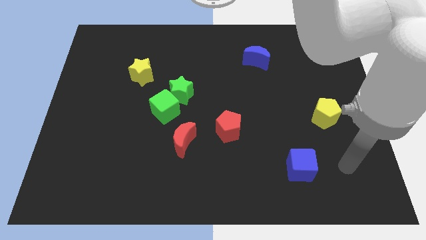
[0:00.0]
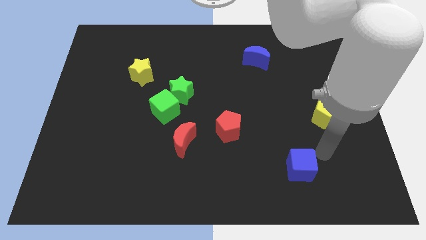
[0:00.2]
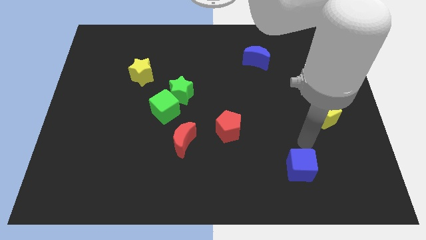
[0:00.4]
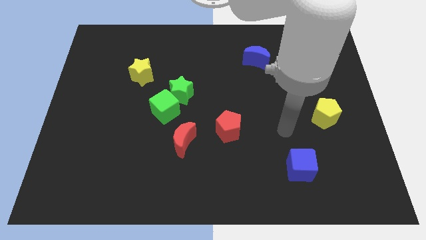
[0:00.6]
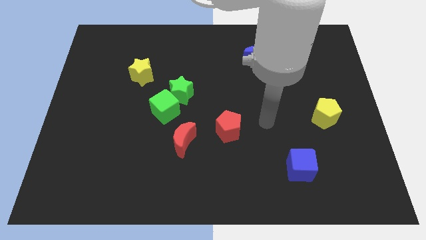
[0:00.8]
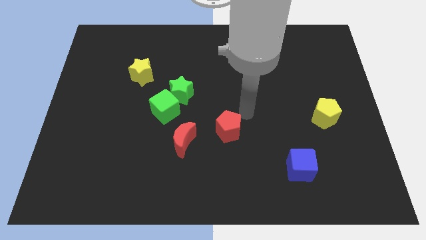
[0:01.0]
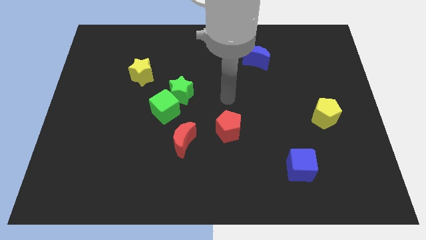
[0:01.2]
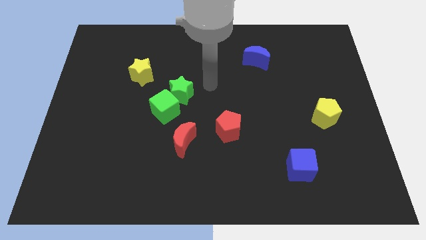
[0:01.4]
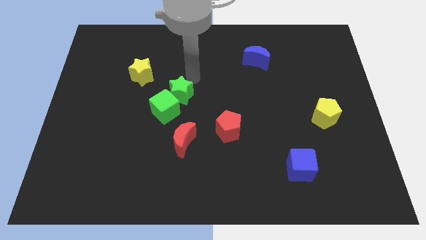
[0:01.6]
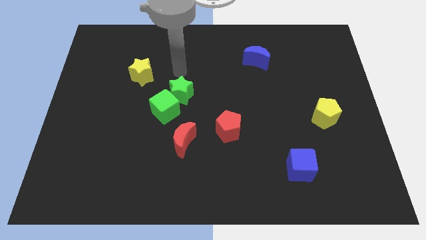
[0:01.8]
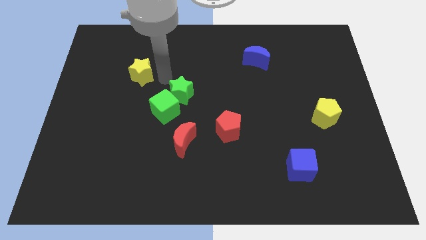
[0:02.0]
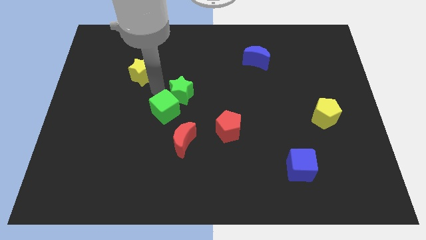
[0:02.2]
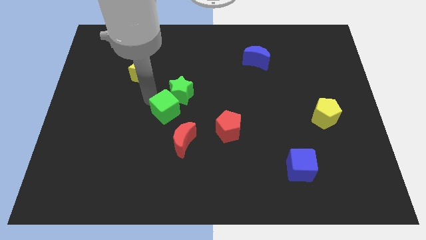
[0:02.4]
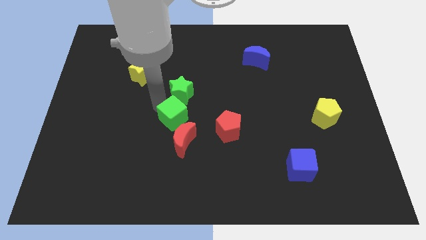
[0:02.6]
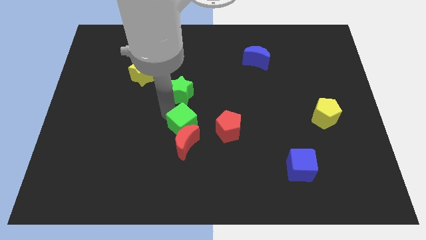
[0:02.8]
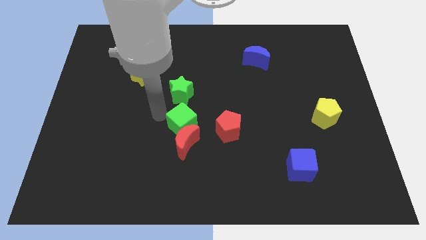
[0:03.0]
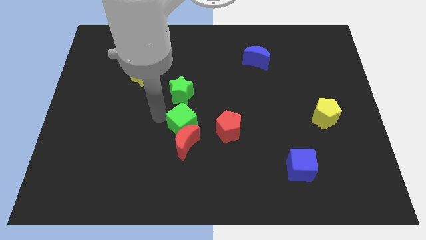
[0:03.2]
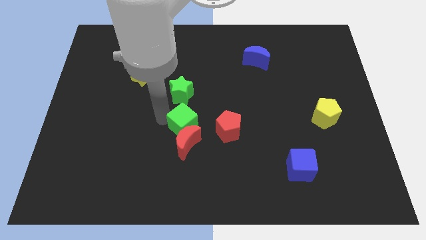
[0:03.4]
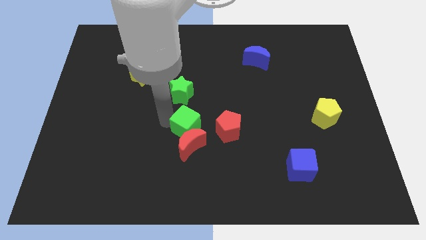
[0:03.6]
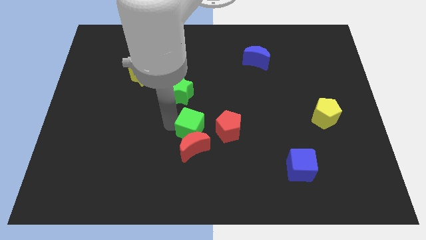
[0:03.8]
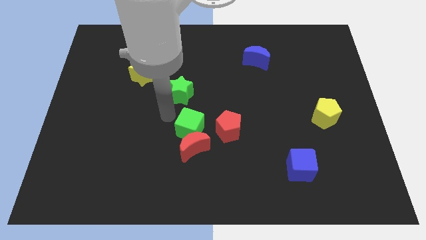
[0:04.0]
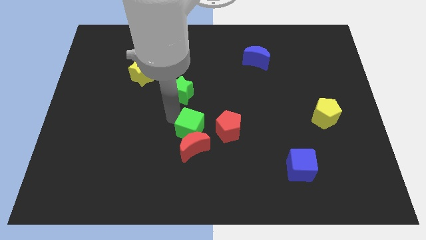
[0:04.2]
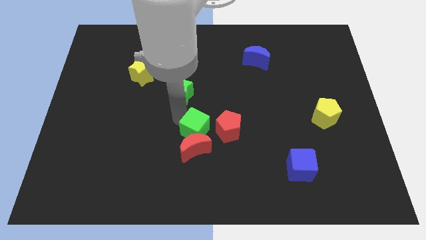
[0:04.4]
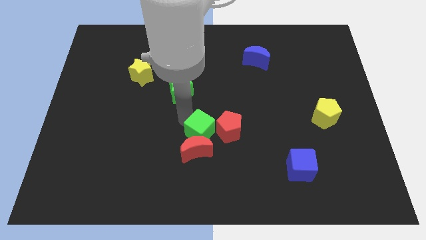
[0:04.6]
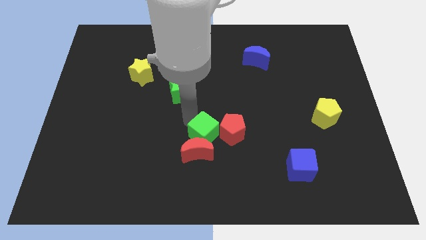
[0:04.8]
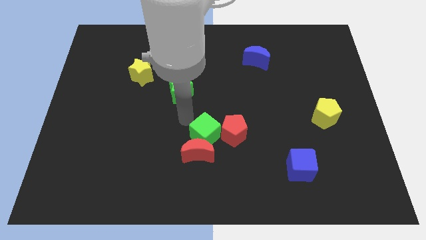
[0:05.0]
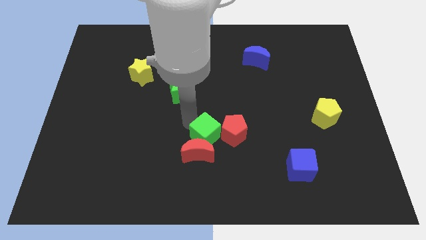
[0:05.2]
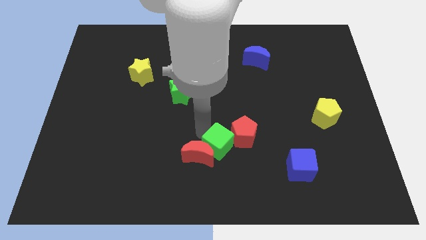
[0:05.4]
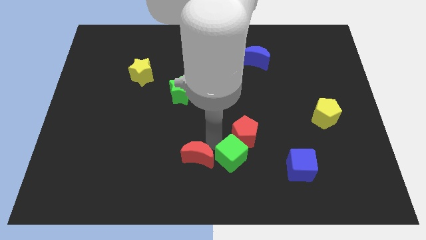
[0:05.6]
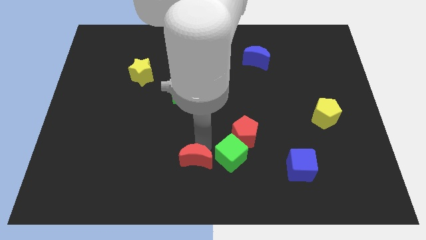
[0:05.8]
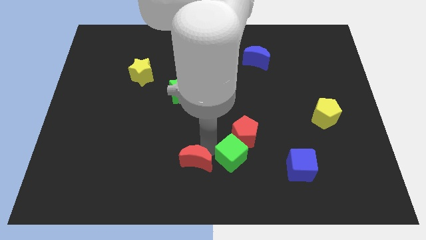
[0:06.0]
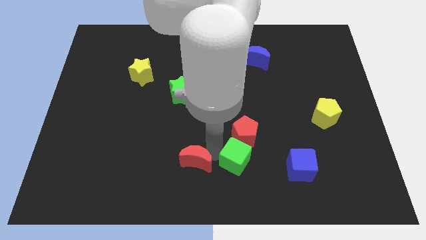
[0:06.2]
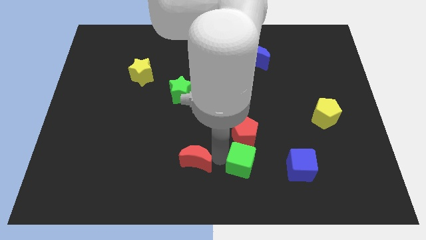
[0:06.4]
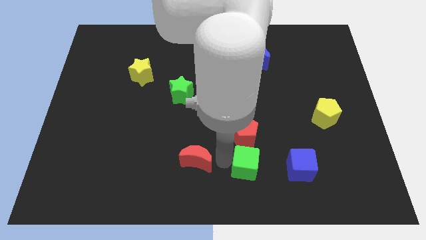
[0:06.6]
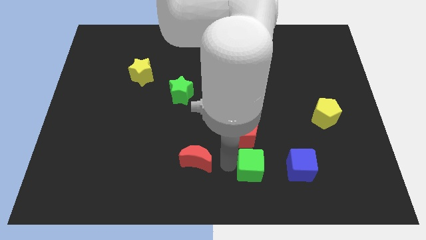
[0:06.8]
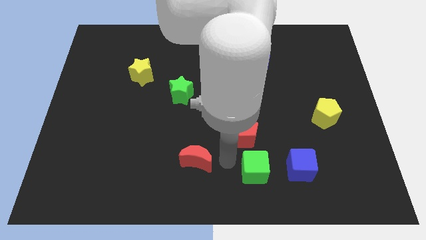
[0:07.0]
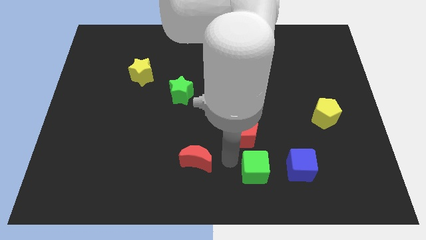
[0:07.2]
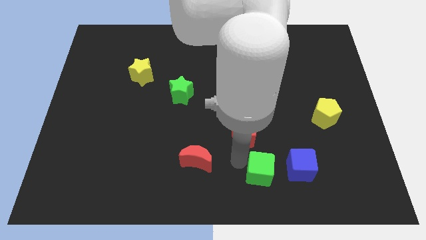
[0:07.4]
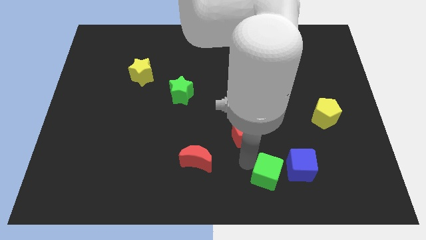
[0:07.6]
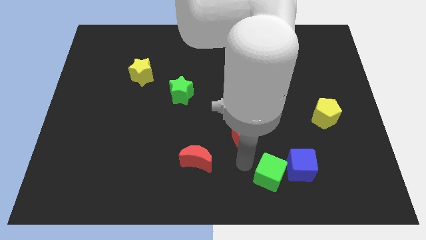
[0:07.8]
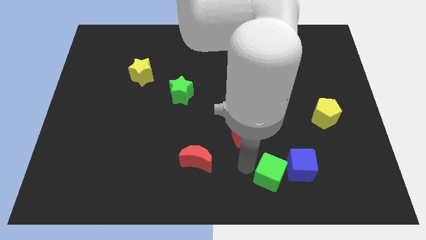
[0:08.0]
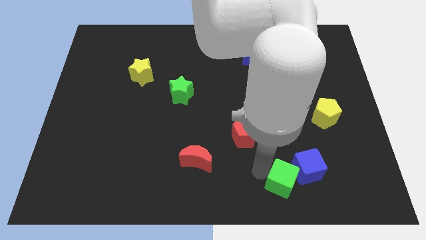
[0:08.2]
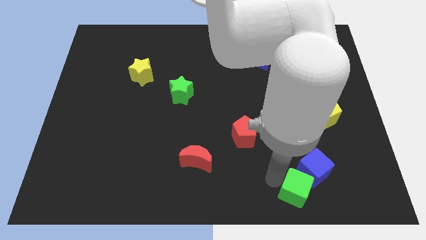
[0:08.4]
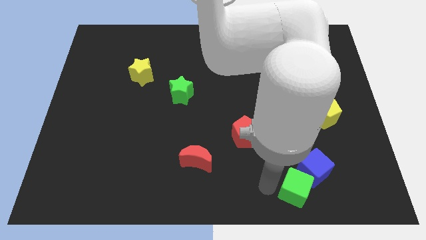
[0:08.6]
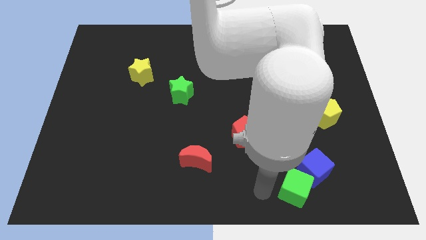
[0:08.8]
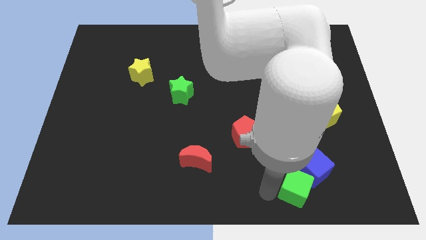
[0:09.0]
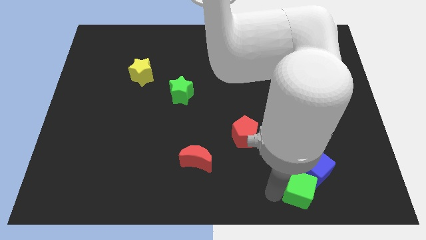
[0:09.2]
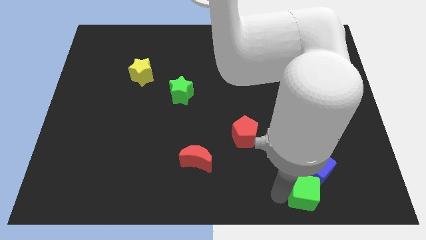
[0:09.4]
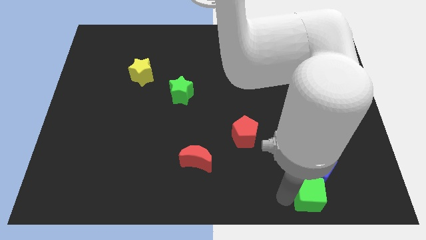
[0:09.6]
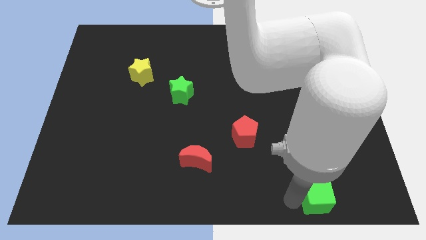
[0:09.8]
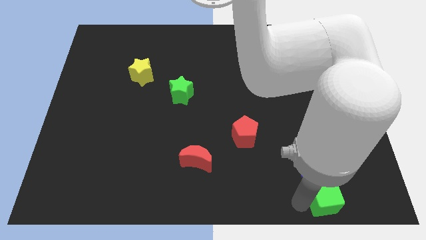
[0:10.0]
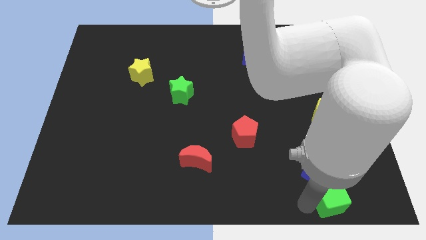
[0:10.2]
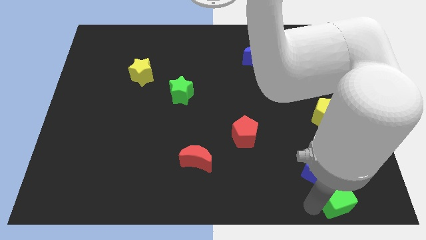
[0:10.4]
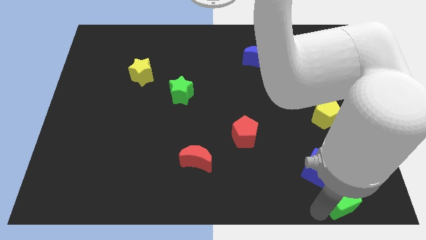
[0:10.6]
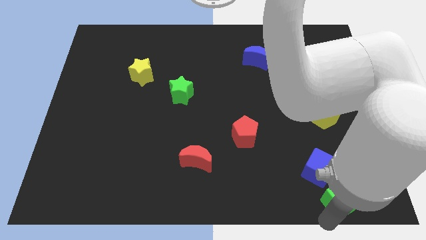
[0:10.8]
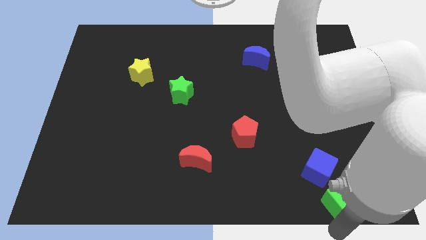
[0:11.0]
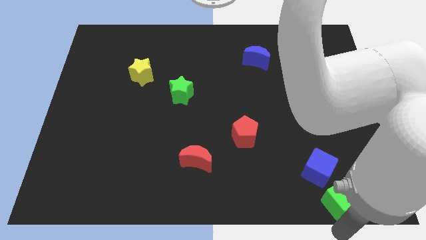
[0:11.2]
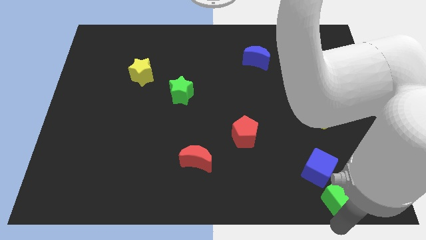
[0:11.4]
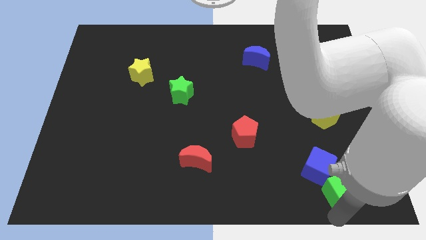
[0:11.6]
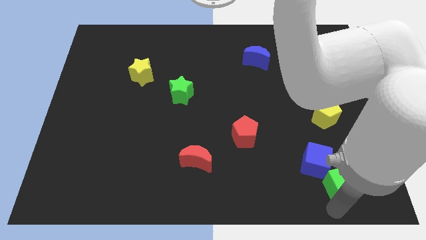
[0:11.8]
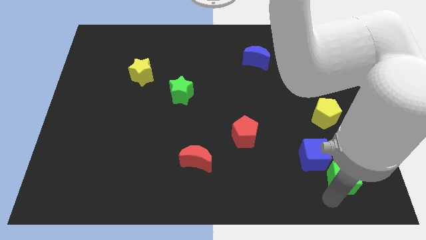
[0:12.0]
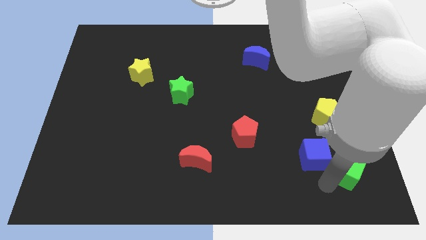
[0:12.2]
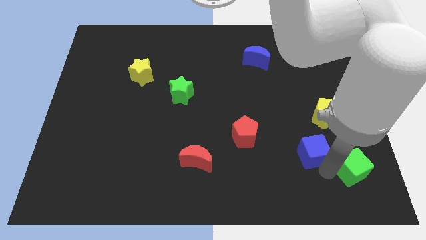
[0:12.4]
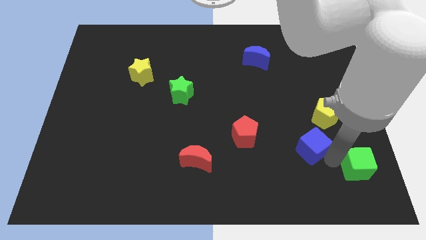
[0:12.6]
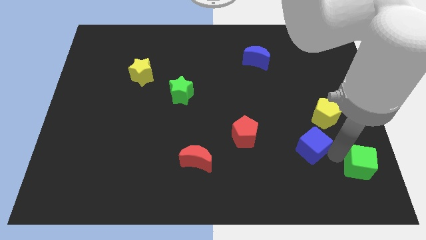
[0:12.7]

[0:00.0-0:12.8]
move the green cube to the bottom right of the board
